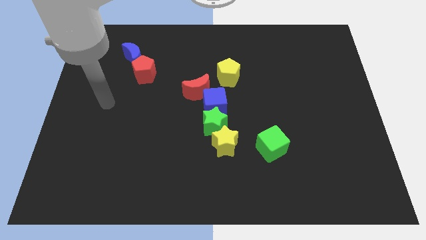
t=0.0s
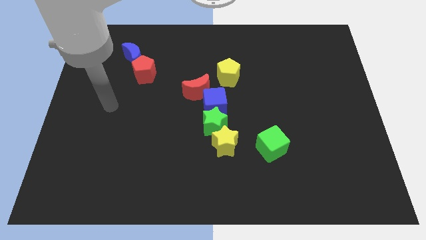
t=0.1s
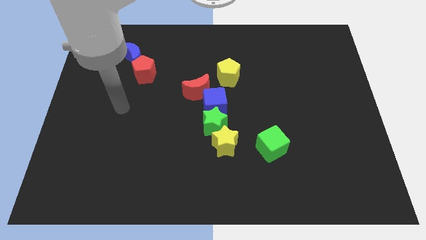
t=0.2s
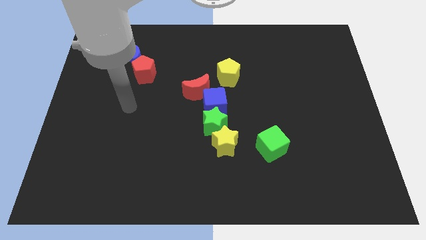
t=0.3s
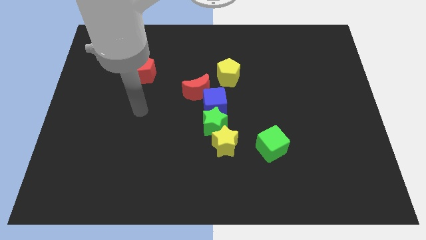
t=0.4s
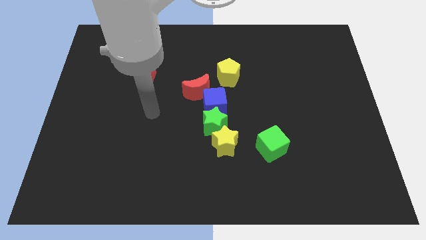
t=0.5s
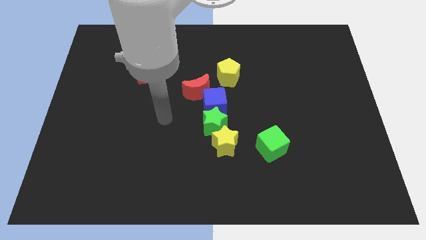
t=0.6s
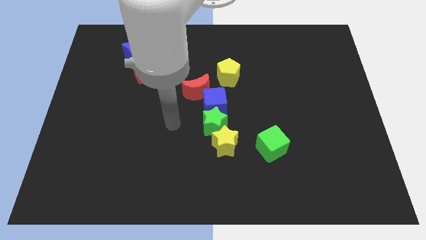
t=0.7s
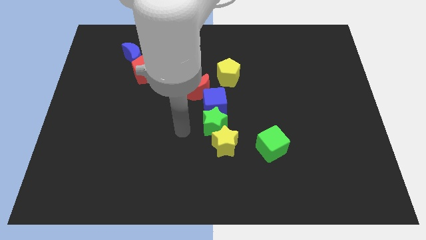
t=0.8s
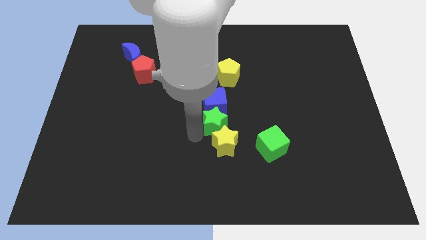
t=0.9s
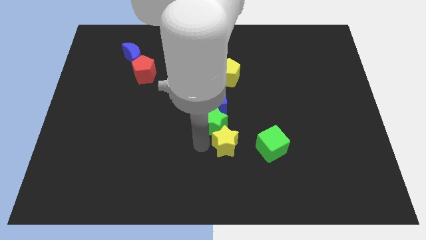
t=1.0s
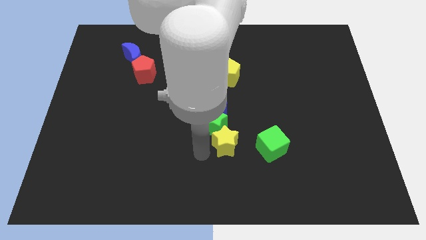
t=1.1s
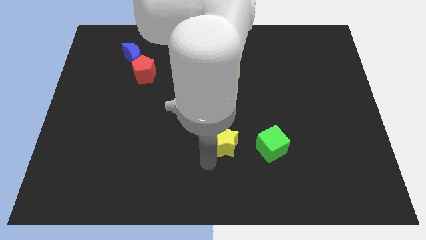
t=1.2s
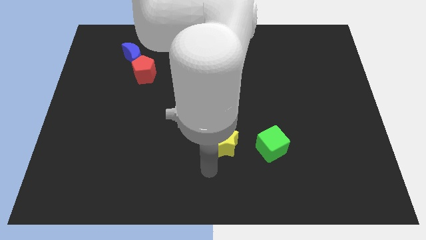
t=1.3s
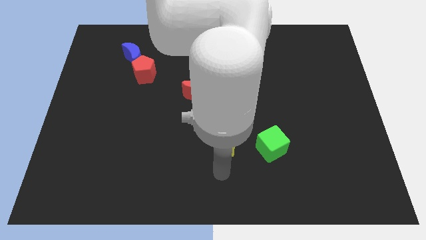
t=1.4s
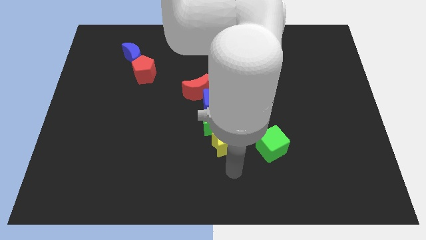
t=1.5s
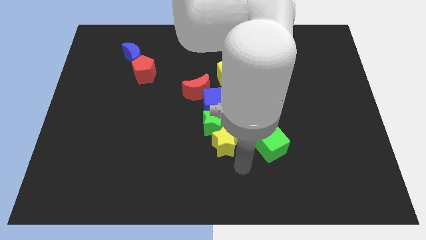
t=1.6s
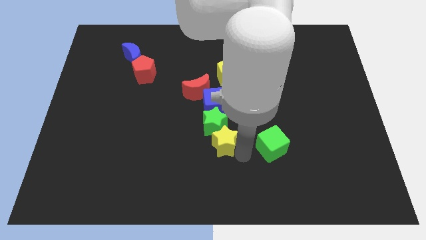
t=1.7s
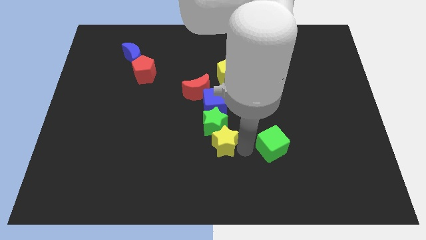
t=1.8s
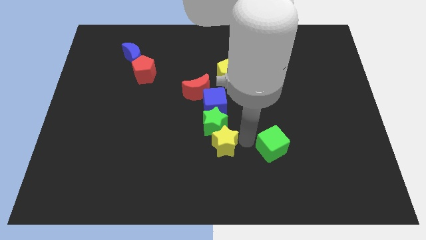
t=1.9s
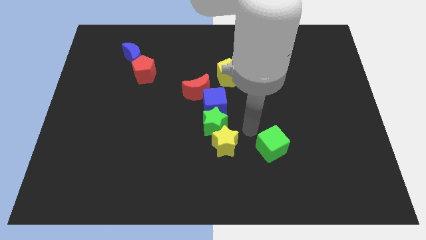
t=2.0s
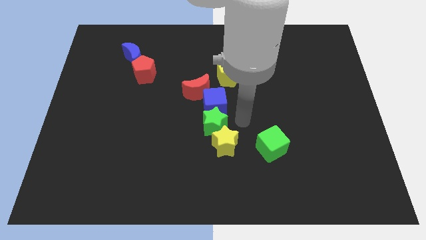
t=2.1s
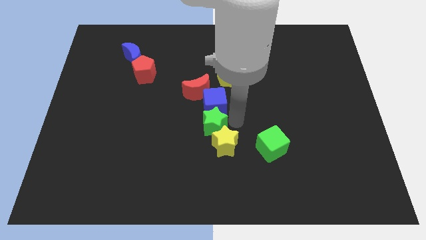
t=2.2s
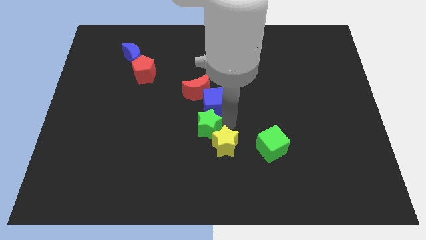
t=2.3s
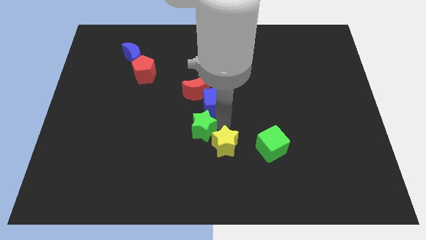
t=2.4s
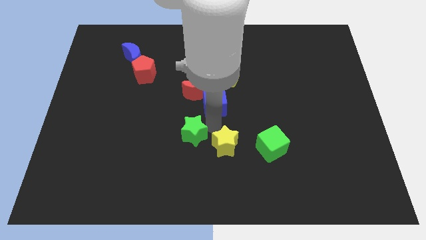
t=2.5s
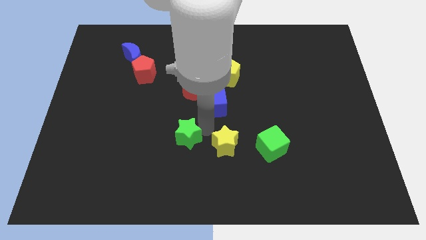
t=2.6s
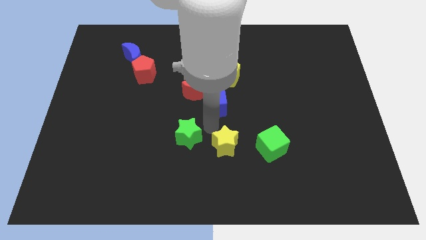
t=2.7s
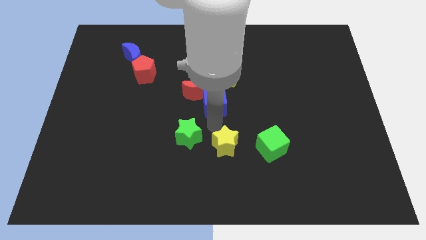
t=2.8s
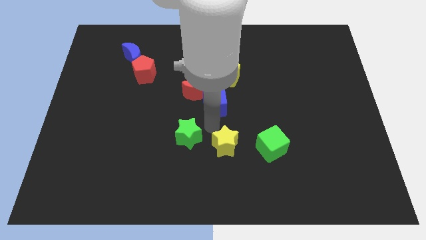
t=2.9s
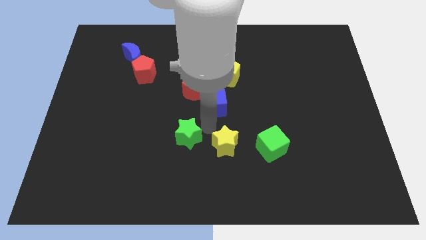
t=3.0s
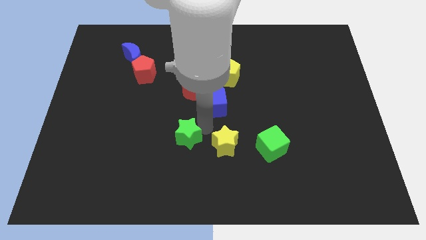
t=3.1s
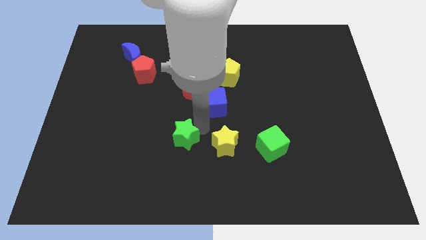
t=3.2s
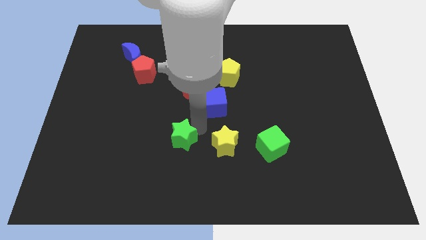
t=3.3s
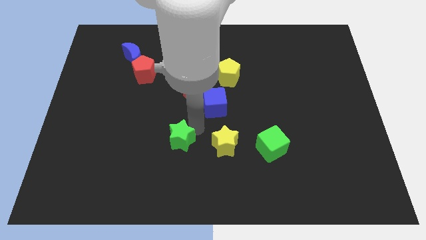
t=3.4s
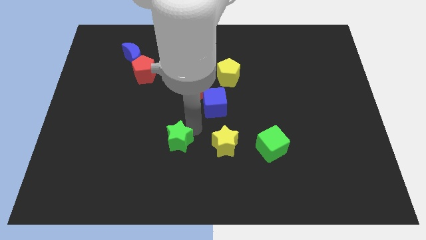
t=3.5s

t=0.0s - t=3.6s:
separate the green star from the yellow star and blue cube

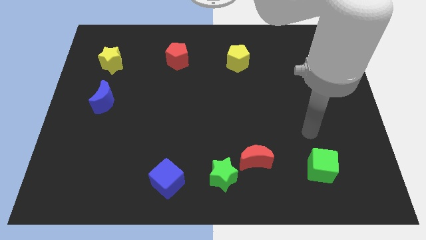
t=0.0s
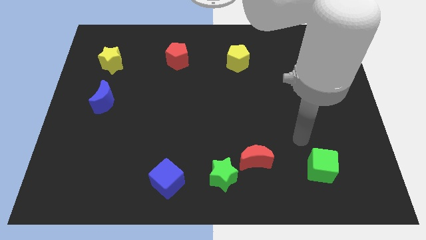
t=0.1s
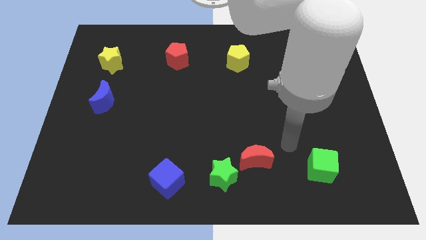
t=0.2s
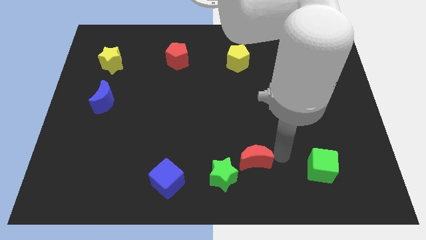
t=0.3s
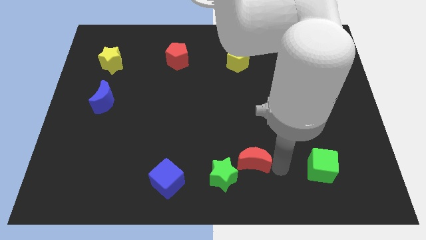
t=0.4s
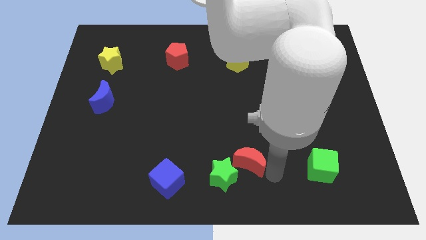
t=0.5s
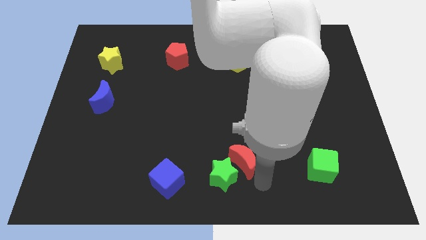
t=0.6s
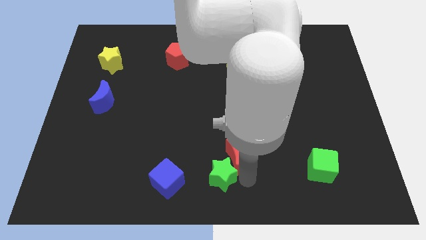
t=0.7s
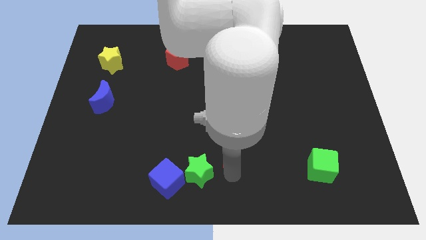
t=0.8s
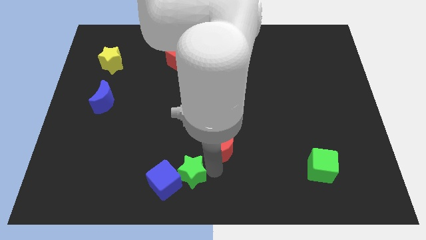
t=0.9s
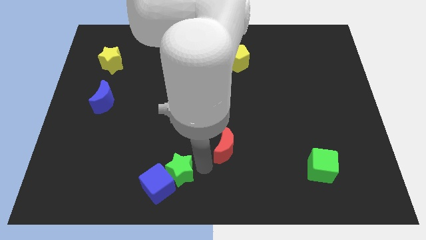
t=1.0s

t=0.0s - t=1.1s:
separate the red moon from the green star

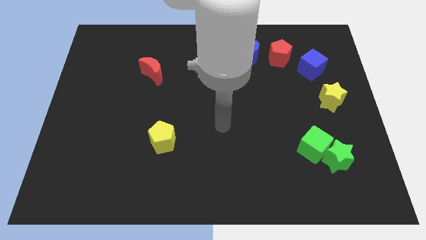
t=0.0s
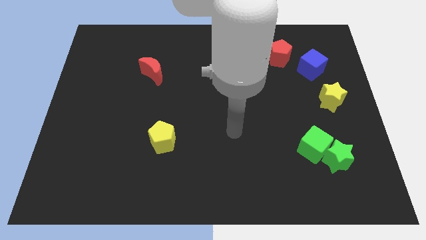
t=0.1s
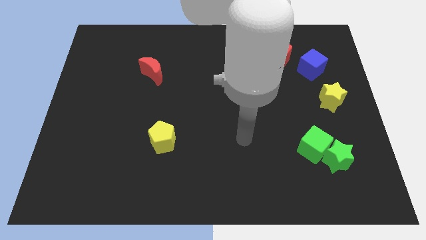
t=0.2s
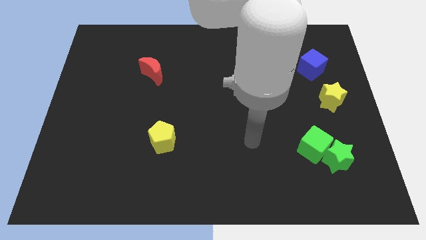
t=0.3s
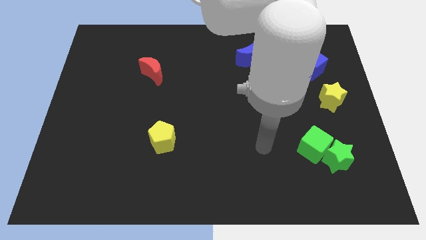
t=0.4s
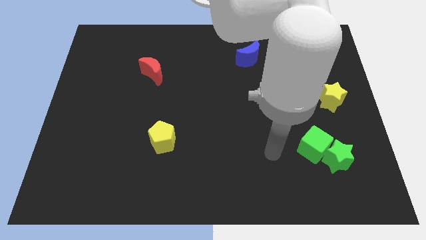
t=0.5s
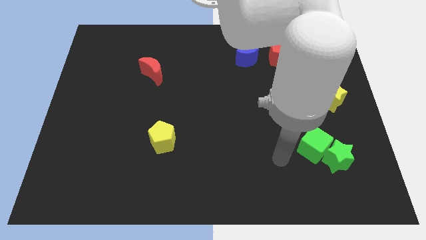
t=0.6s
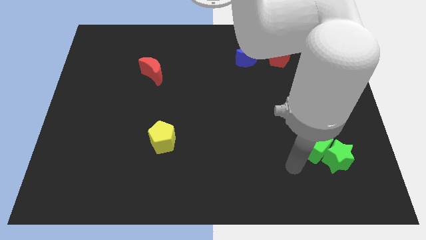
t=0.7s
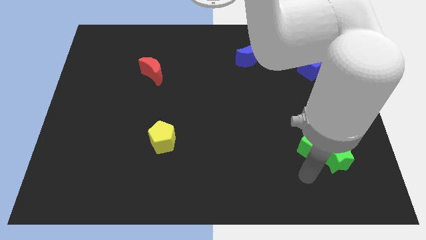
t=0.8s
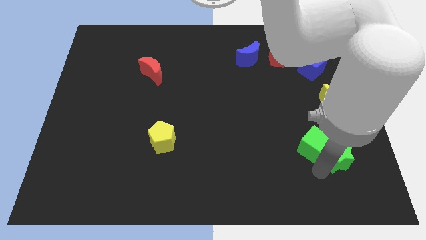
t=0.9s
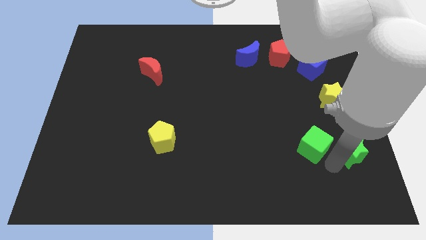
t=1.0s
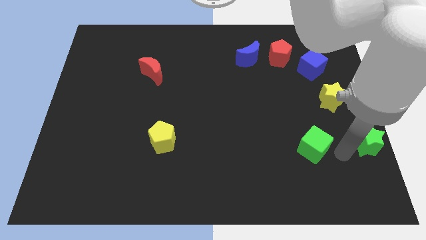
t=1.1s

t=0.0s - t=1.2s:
separate the green cube from the green star

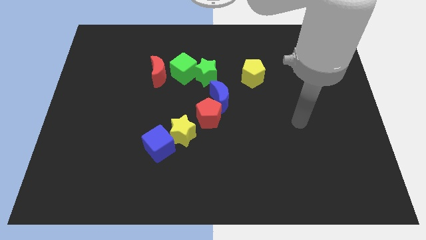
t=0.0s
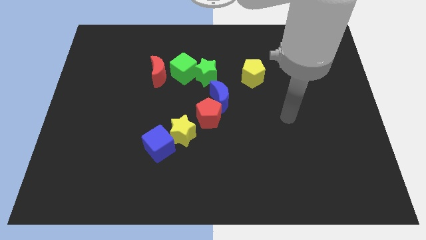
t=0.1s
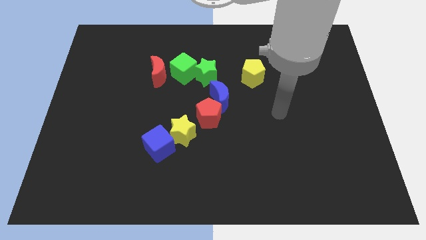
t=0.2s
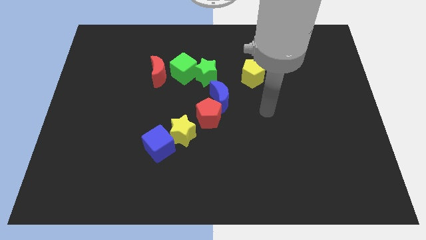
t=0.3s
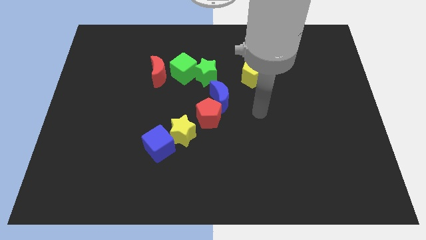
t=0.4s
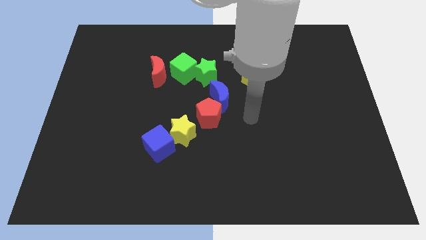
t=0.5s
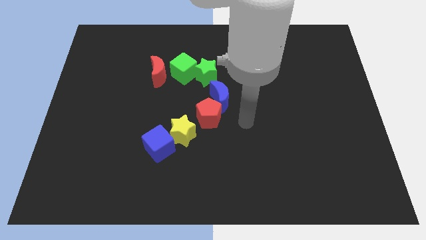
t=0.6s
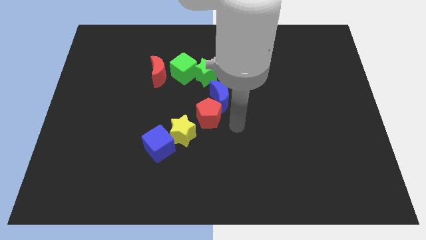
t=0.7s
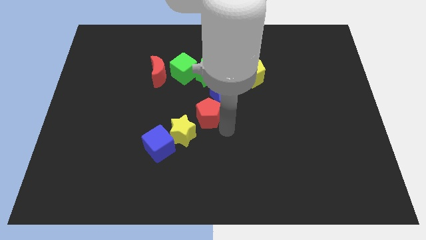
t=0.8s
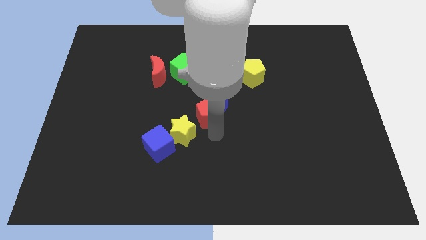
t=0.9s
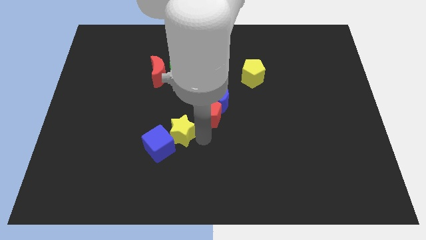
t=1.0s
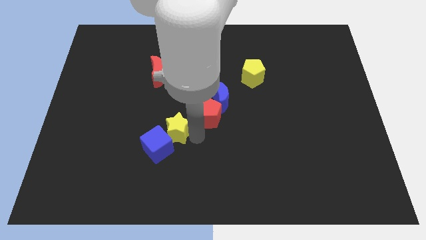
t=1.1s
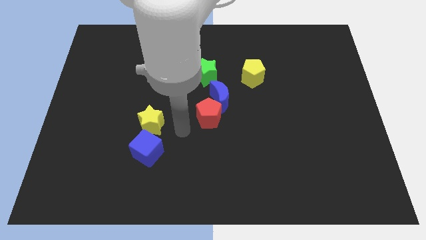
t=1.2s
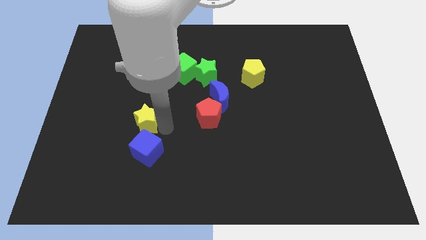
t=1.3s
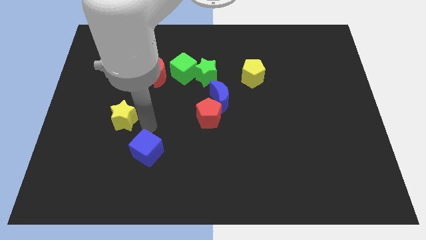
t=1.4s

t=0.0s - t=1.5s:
pull the blue cube apart from the yellow star

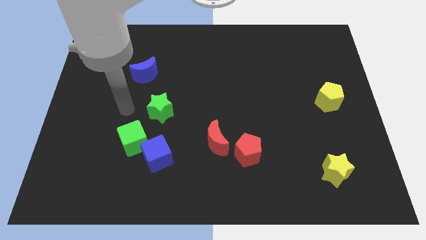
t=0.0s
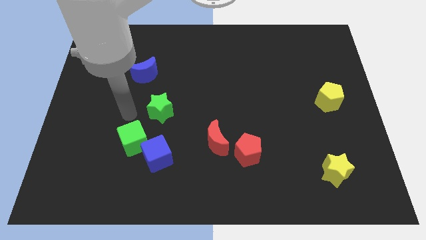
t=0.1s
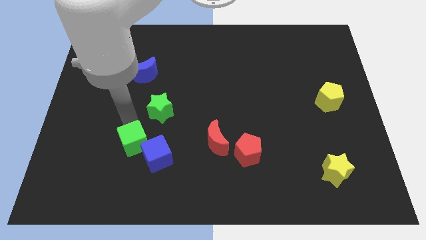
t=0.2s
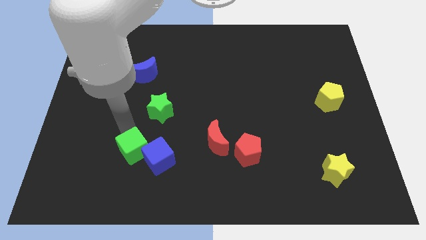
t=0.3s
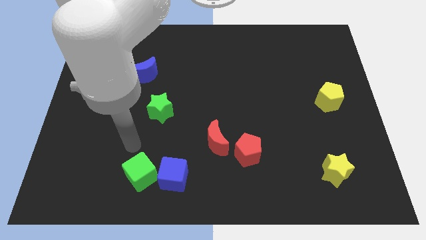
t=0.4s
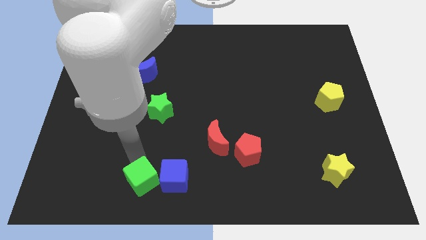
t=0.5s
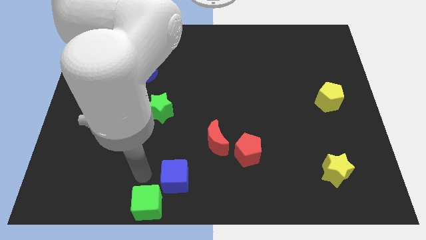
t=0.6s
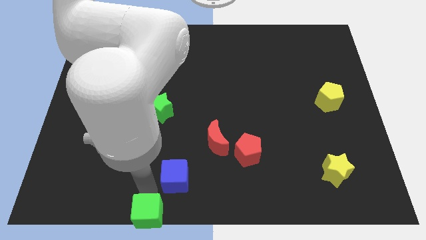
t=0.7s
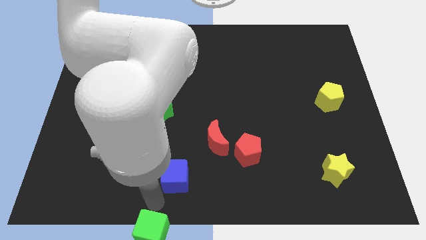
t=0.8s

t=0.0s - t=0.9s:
move the blue cube away from the green cube

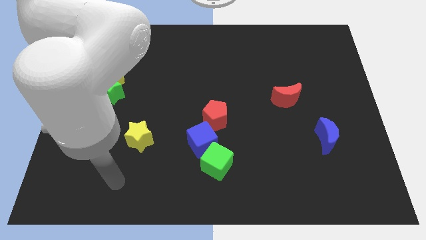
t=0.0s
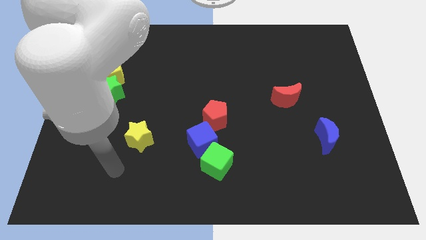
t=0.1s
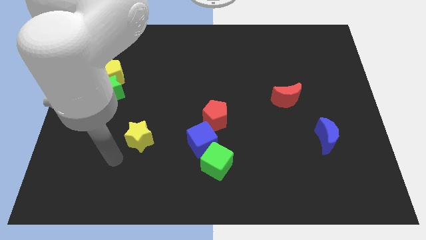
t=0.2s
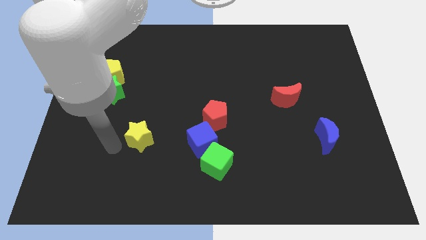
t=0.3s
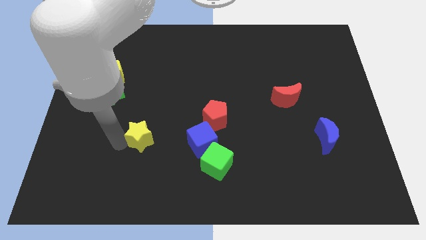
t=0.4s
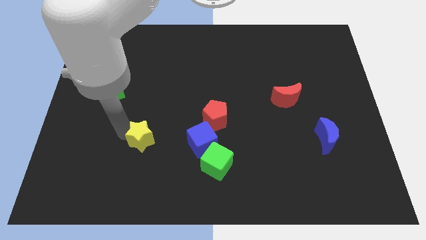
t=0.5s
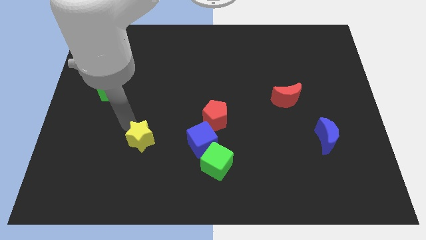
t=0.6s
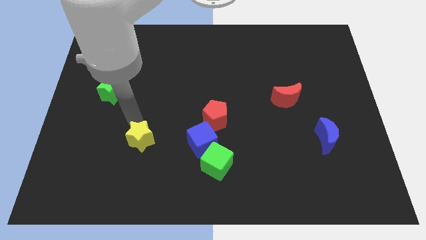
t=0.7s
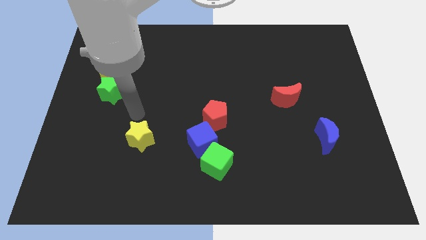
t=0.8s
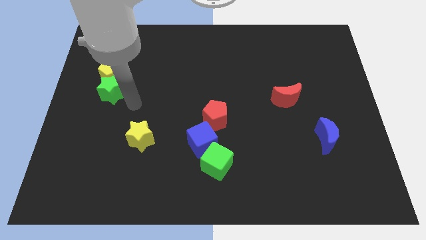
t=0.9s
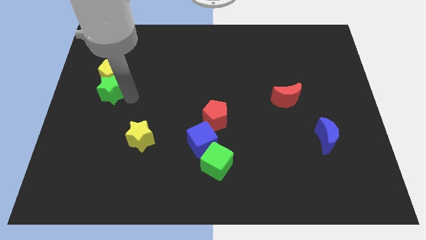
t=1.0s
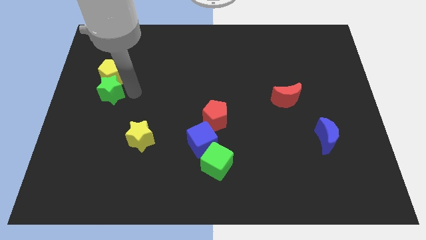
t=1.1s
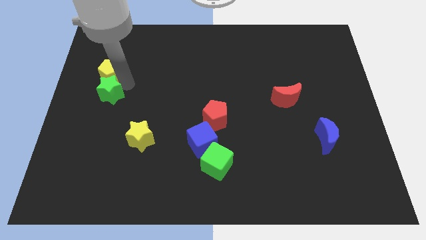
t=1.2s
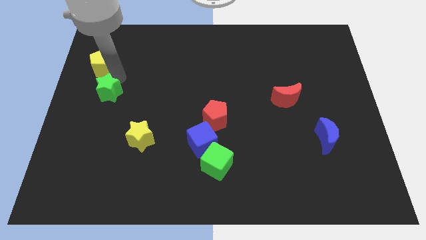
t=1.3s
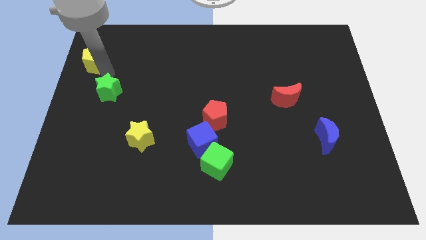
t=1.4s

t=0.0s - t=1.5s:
move the green star away from the yellow pentagon
